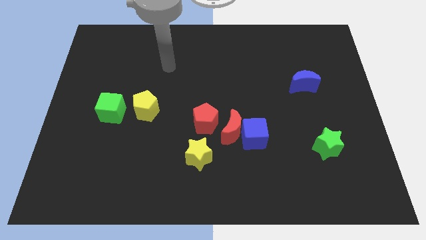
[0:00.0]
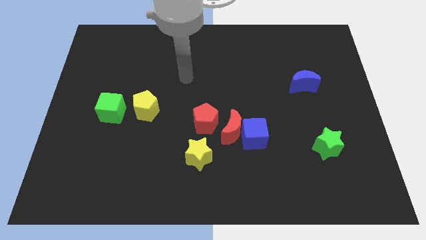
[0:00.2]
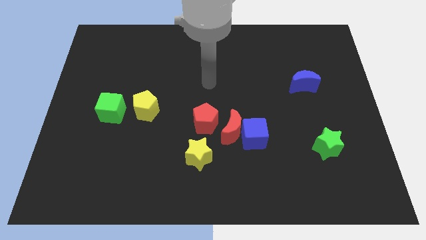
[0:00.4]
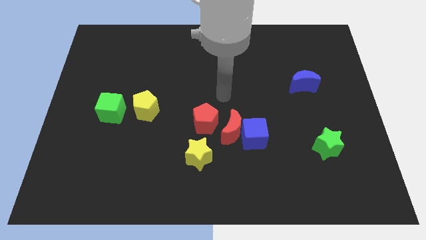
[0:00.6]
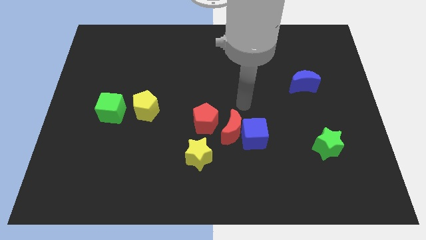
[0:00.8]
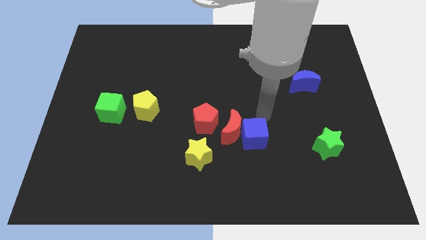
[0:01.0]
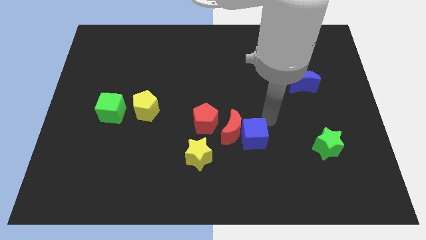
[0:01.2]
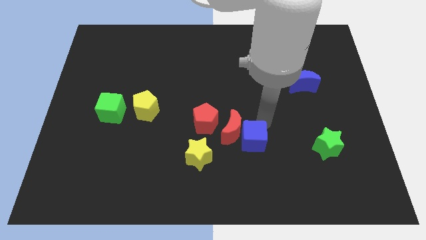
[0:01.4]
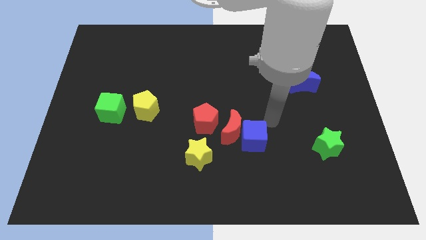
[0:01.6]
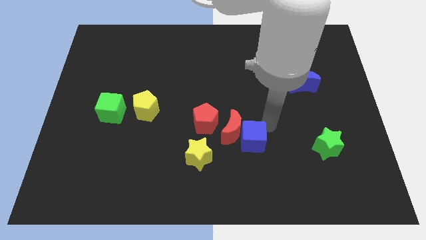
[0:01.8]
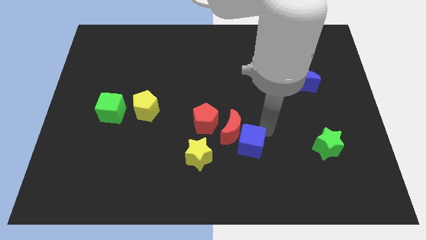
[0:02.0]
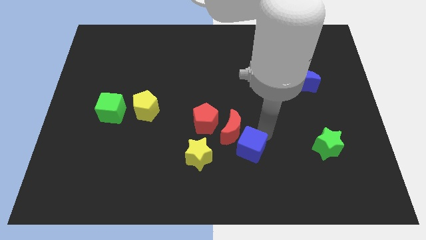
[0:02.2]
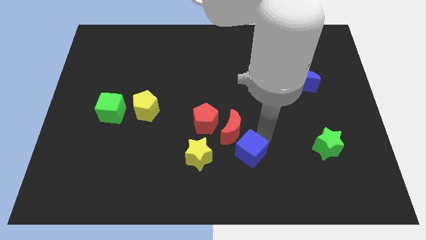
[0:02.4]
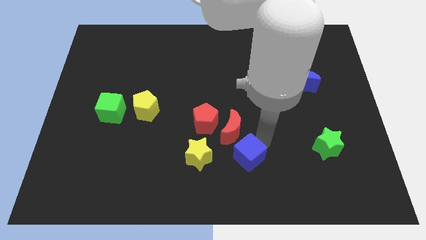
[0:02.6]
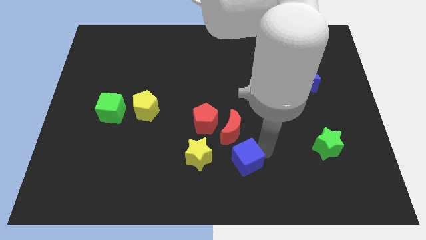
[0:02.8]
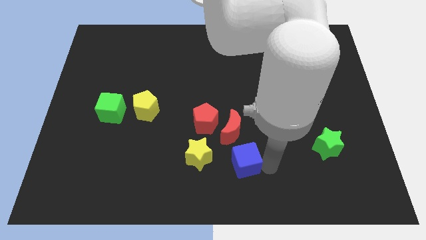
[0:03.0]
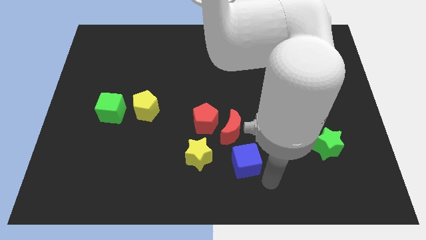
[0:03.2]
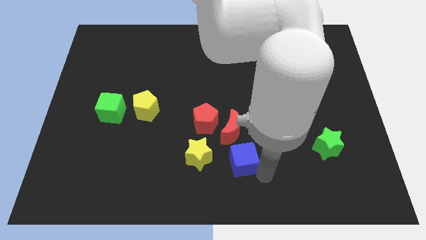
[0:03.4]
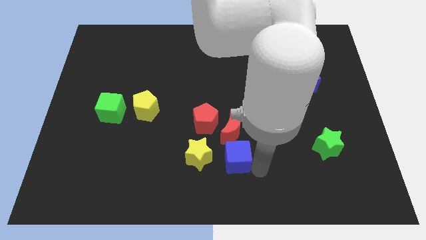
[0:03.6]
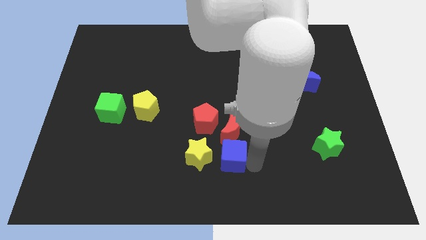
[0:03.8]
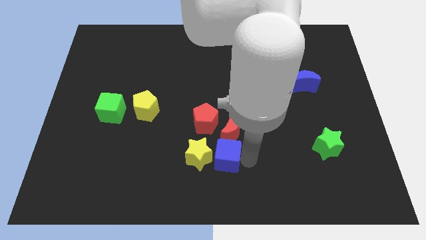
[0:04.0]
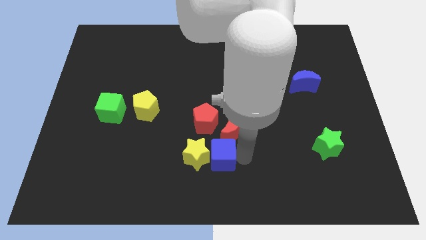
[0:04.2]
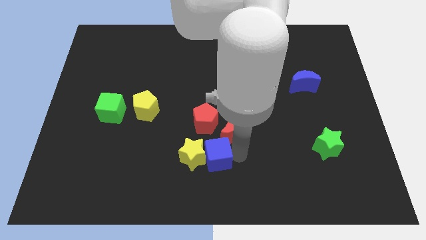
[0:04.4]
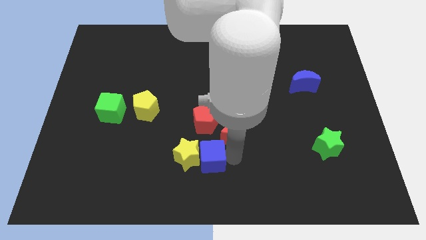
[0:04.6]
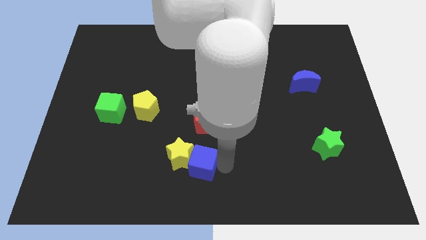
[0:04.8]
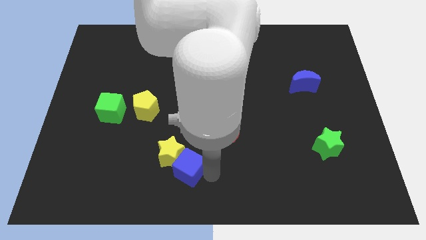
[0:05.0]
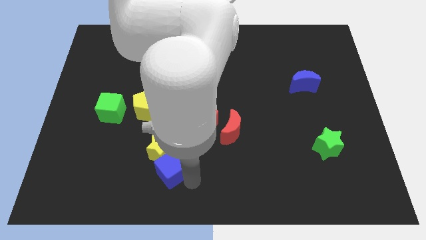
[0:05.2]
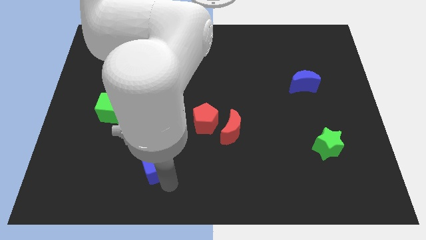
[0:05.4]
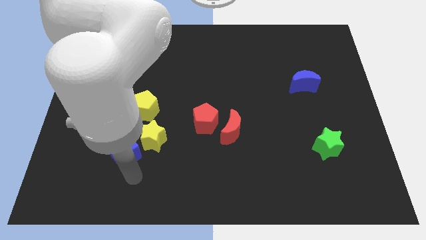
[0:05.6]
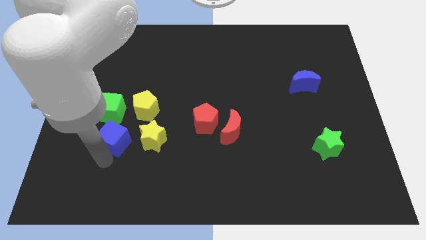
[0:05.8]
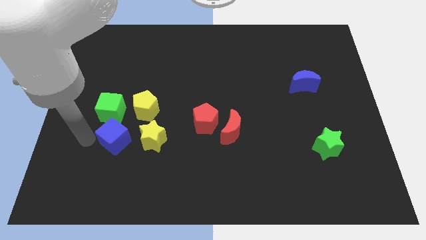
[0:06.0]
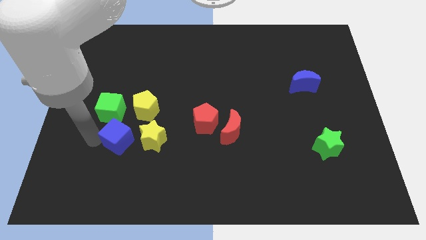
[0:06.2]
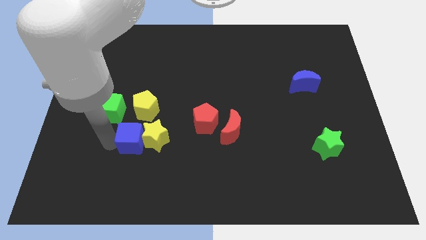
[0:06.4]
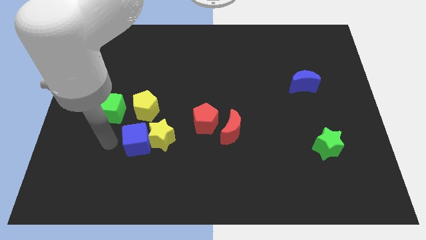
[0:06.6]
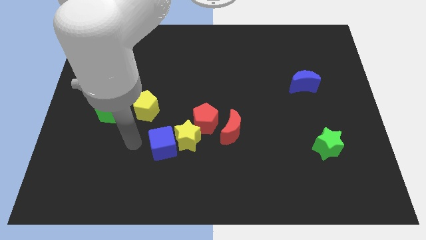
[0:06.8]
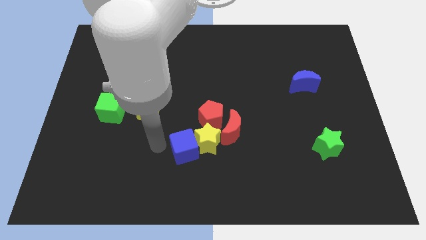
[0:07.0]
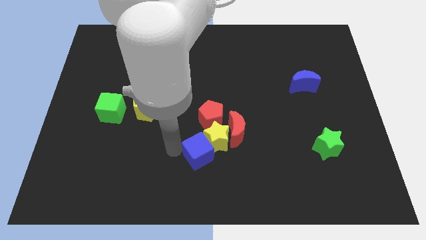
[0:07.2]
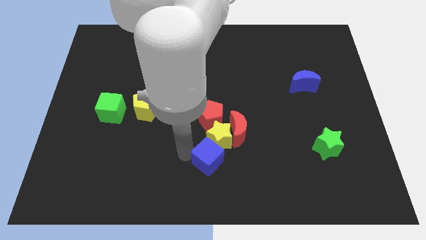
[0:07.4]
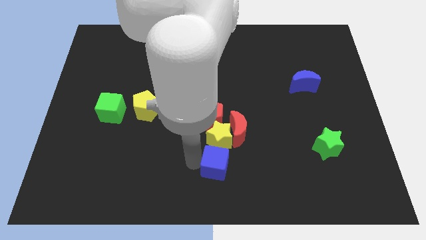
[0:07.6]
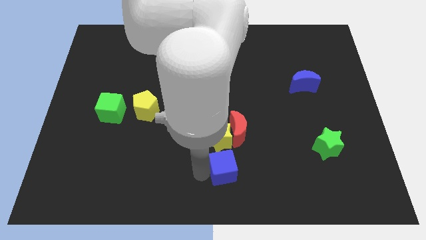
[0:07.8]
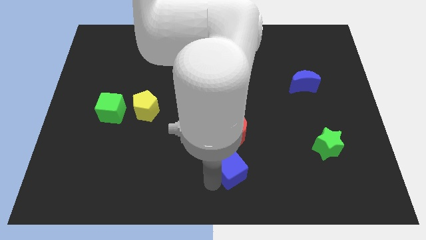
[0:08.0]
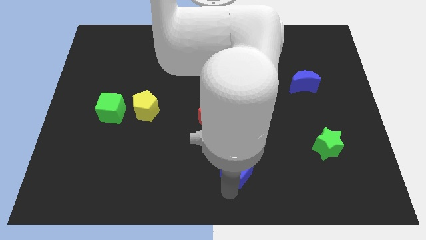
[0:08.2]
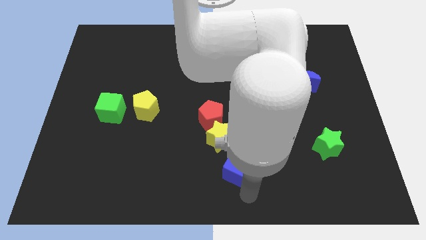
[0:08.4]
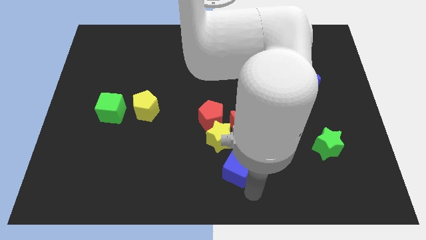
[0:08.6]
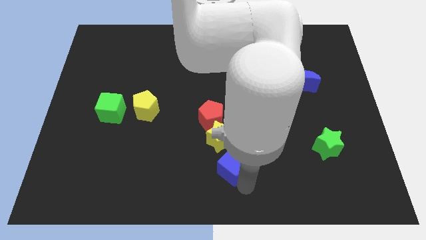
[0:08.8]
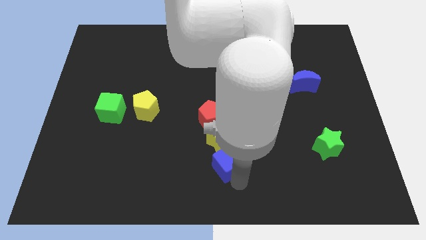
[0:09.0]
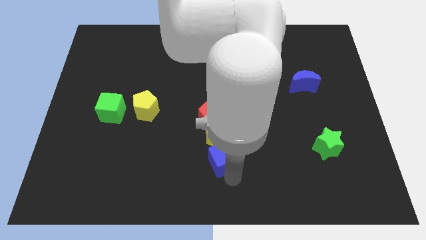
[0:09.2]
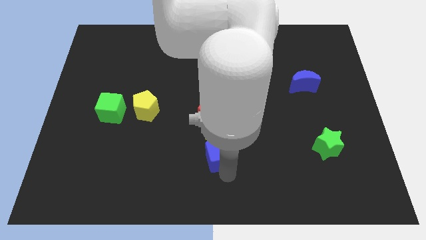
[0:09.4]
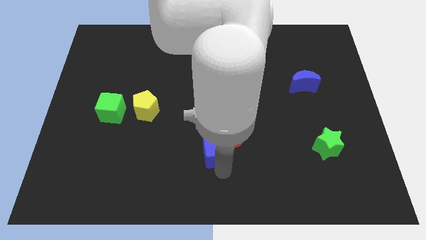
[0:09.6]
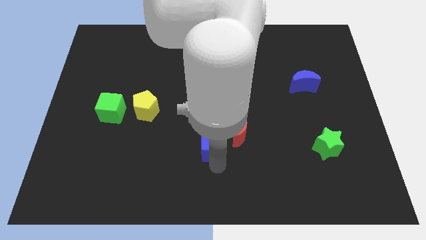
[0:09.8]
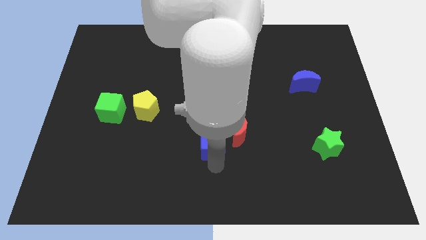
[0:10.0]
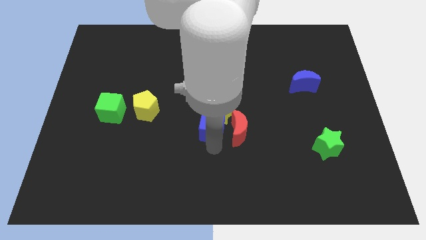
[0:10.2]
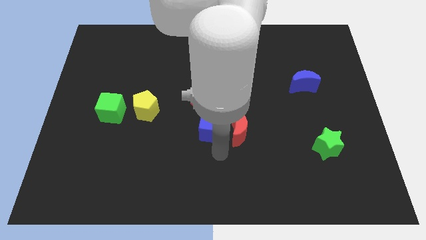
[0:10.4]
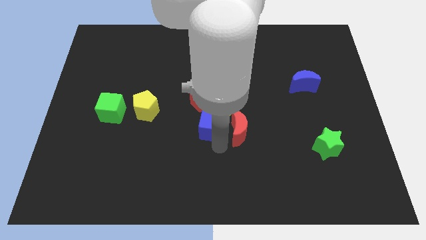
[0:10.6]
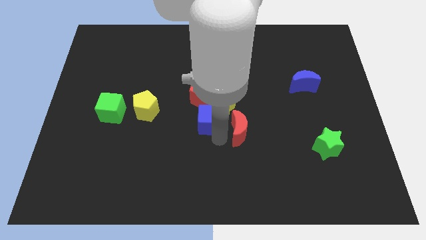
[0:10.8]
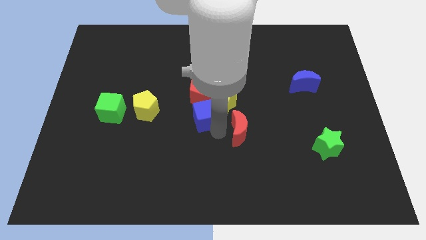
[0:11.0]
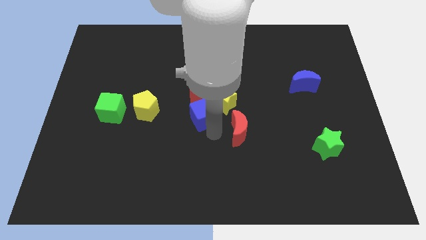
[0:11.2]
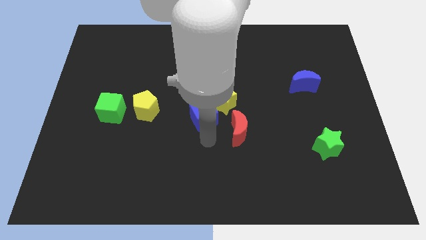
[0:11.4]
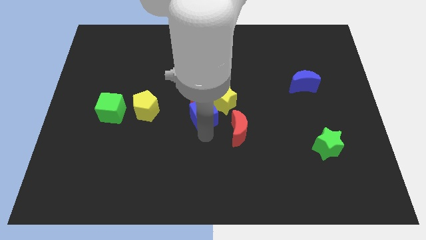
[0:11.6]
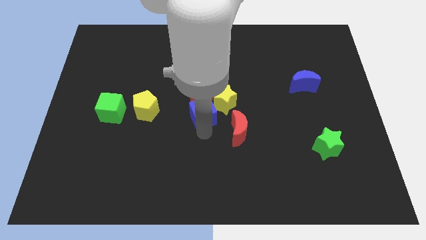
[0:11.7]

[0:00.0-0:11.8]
put the blue cube to the red pentagon

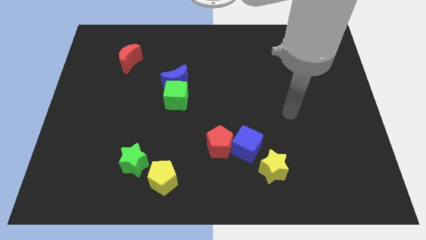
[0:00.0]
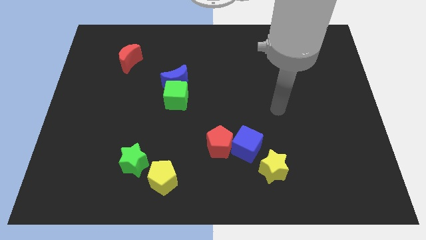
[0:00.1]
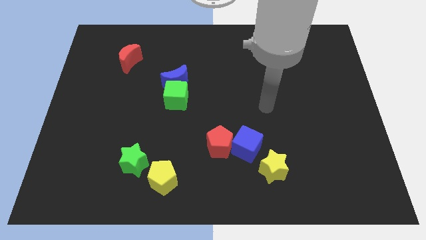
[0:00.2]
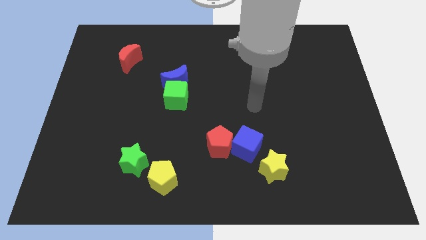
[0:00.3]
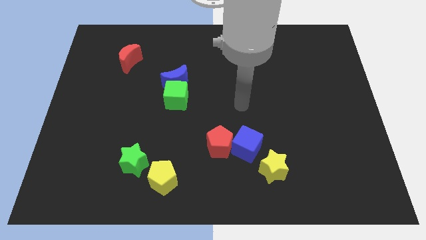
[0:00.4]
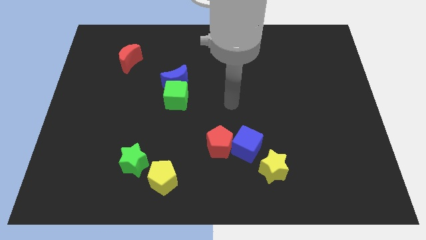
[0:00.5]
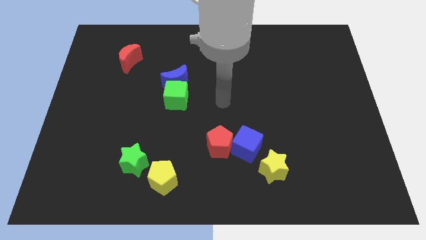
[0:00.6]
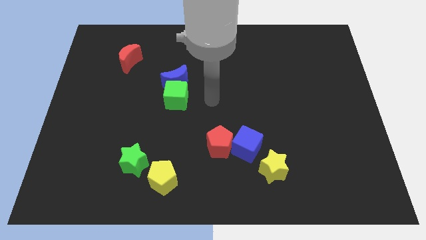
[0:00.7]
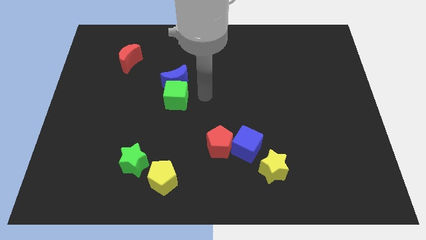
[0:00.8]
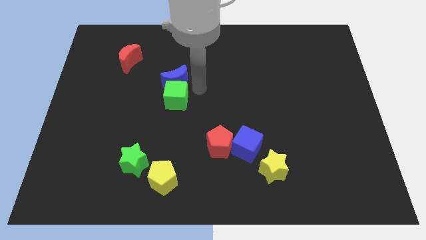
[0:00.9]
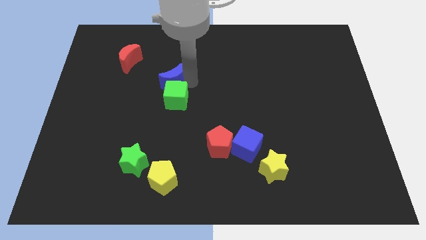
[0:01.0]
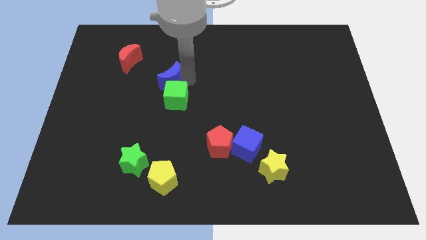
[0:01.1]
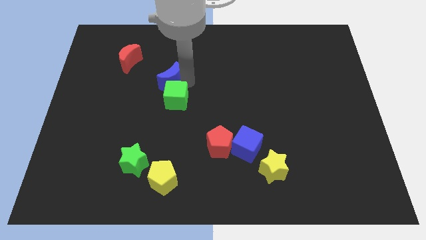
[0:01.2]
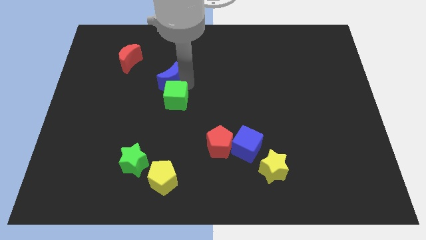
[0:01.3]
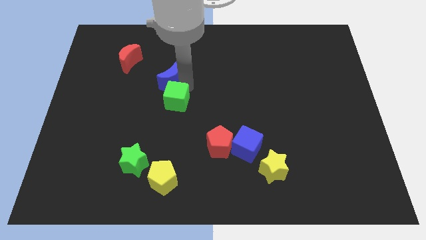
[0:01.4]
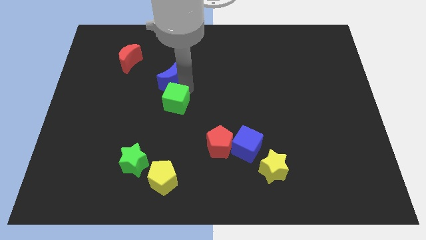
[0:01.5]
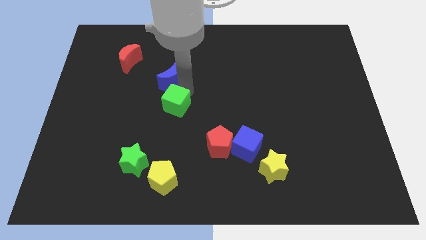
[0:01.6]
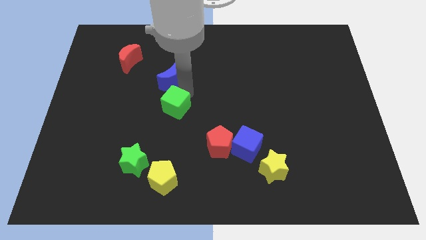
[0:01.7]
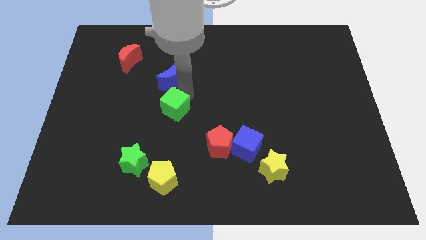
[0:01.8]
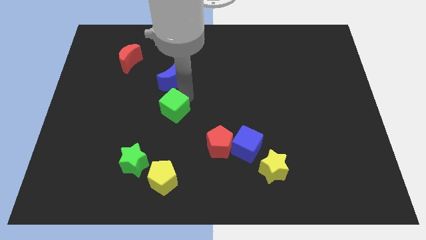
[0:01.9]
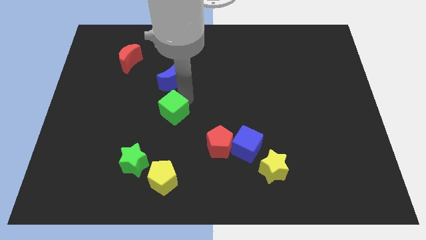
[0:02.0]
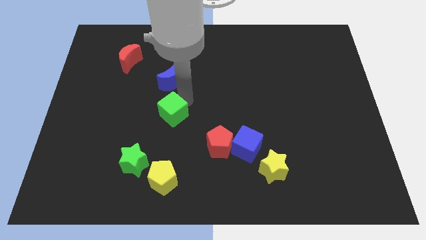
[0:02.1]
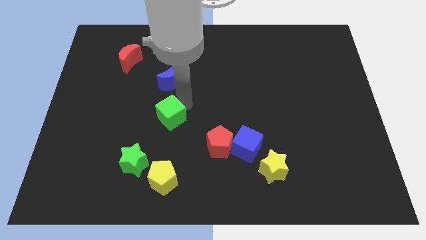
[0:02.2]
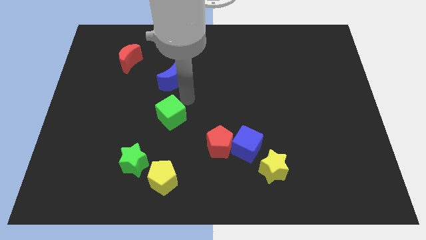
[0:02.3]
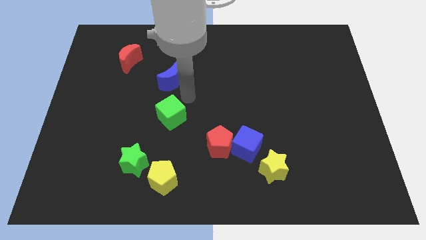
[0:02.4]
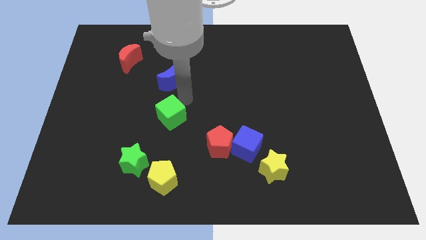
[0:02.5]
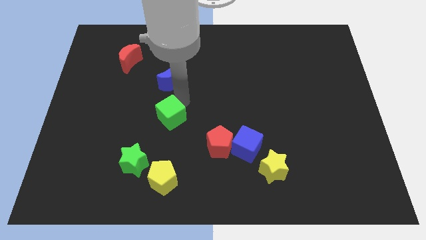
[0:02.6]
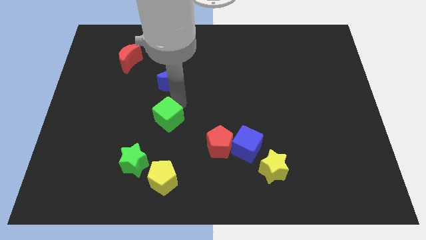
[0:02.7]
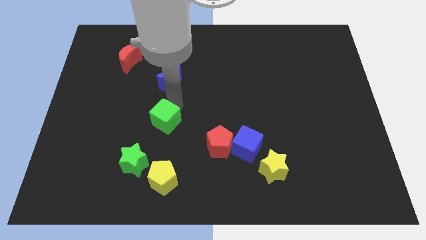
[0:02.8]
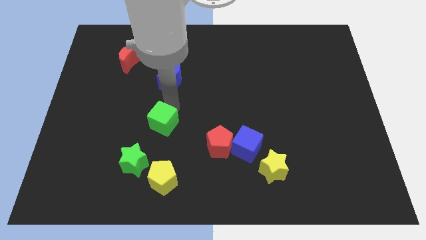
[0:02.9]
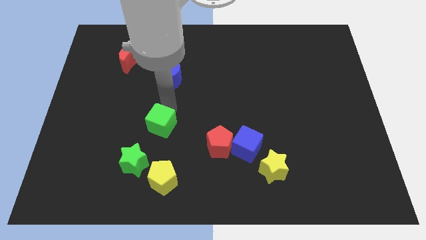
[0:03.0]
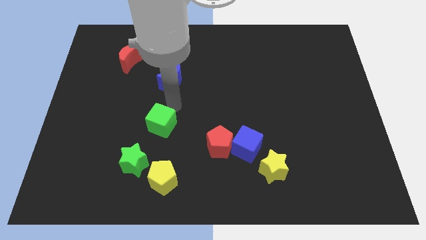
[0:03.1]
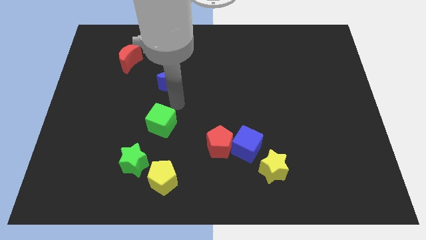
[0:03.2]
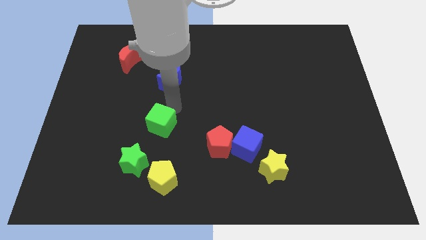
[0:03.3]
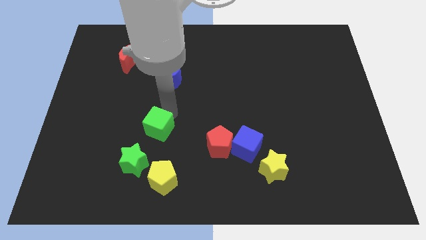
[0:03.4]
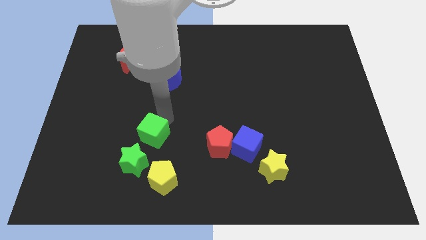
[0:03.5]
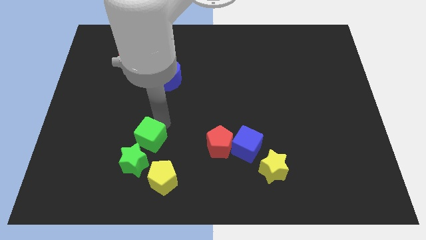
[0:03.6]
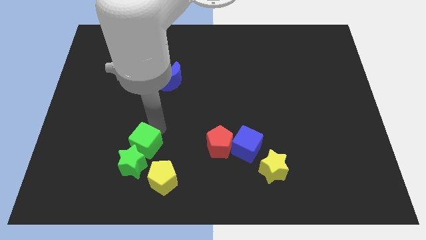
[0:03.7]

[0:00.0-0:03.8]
move the green cube to the green star
